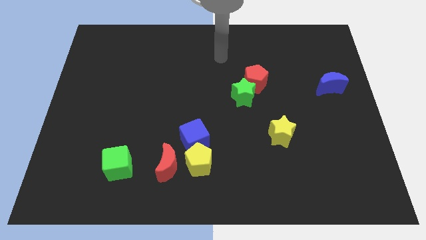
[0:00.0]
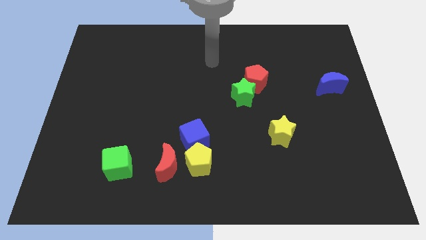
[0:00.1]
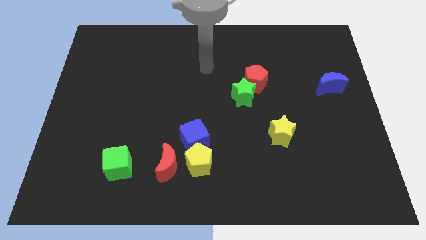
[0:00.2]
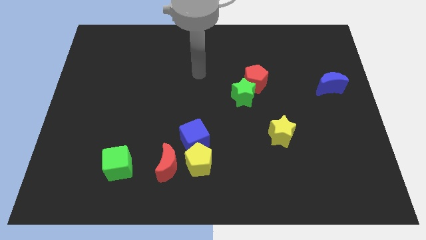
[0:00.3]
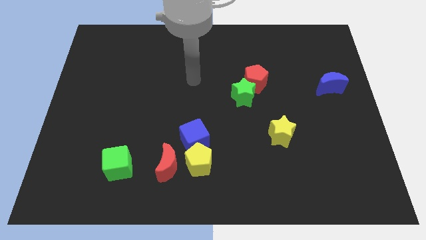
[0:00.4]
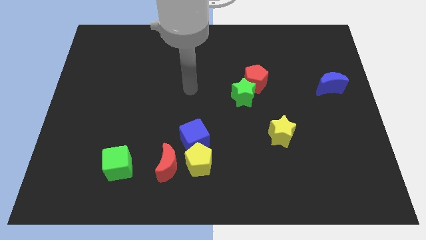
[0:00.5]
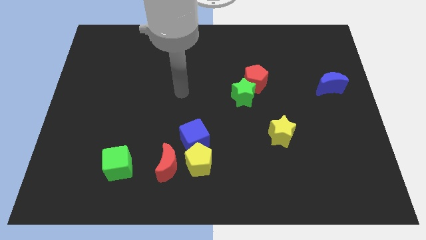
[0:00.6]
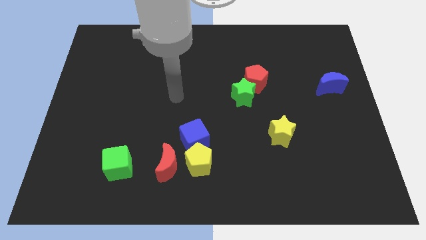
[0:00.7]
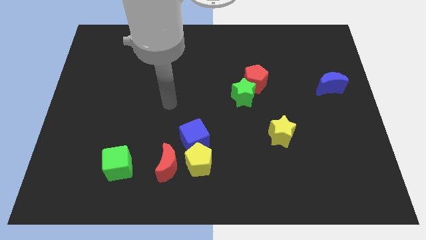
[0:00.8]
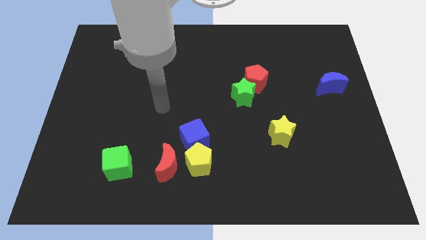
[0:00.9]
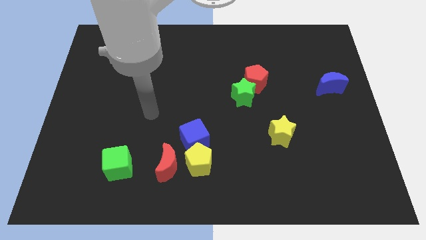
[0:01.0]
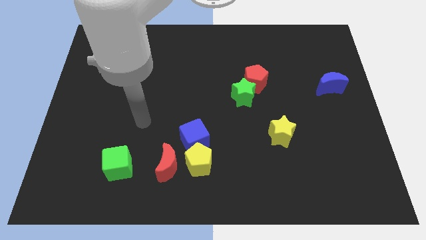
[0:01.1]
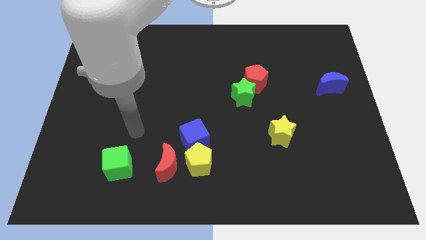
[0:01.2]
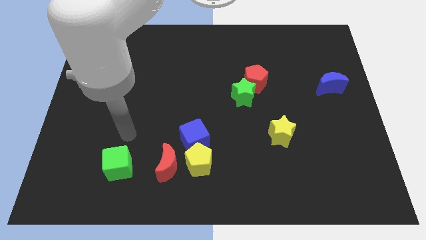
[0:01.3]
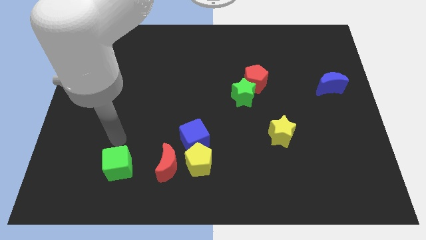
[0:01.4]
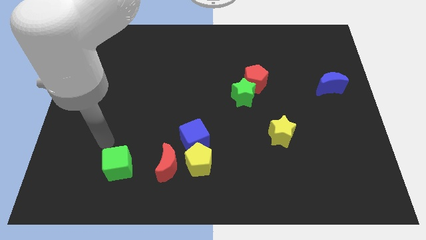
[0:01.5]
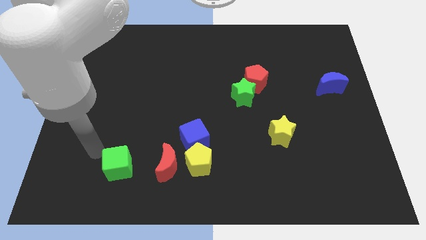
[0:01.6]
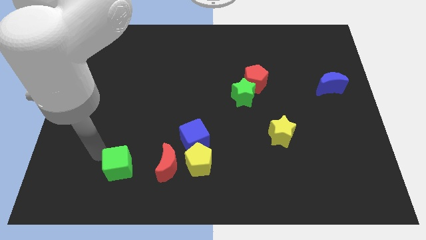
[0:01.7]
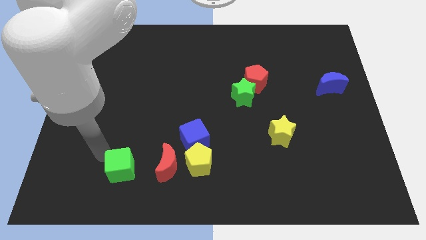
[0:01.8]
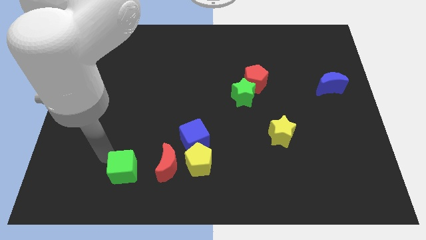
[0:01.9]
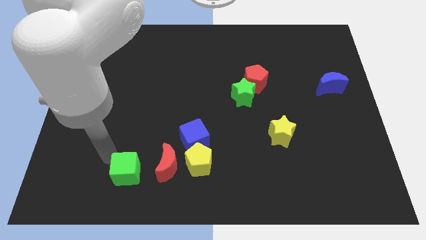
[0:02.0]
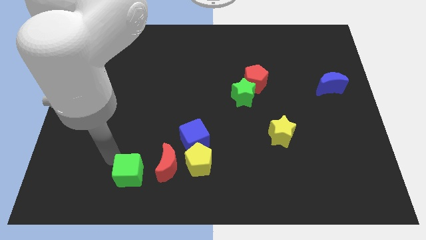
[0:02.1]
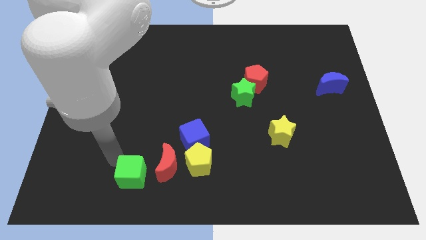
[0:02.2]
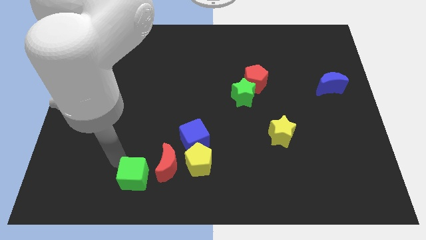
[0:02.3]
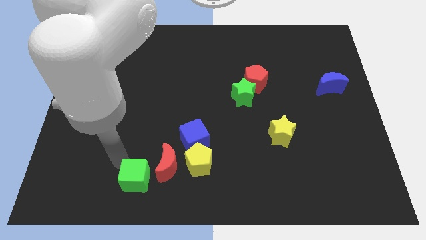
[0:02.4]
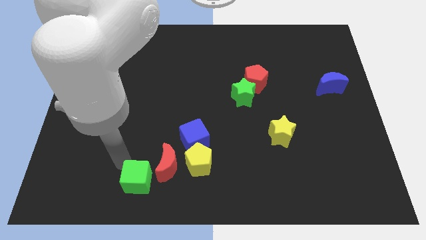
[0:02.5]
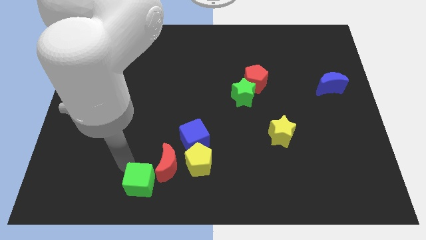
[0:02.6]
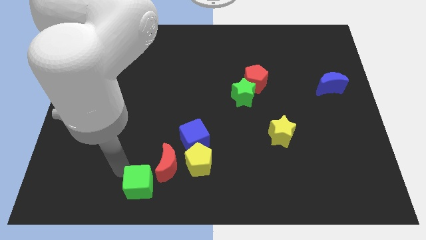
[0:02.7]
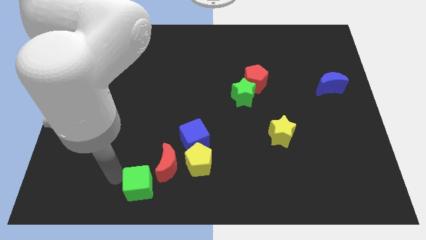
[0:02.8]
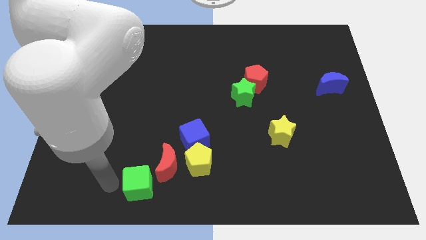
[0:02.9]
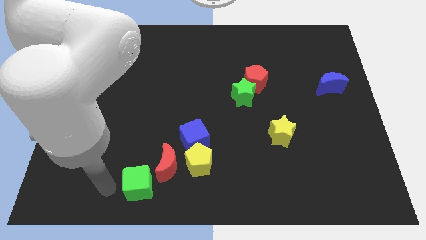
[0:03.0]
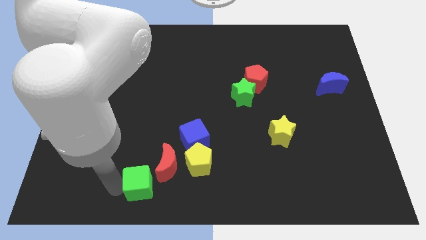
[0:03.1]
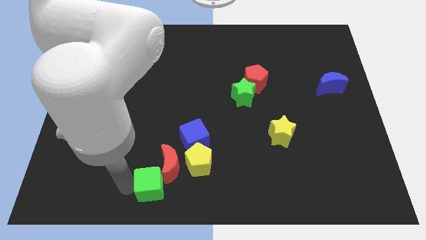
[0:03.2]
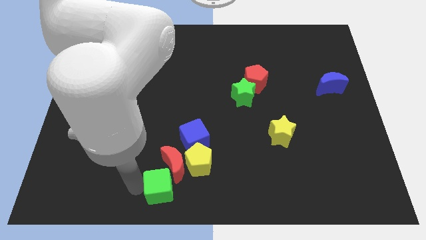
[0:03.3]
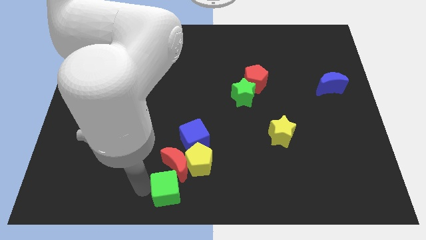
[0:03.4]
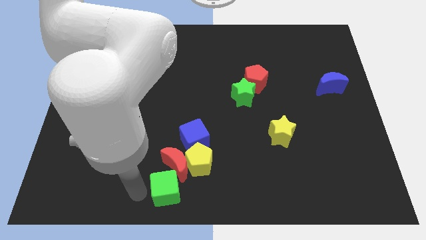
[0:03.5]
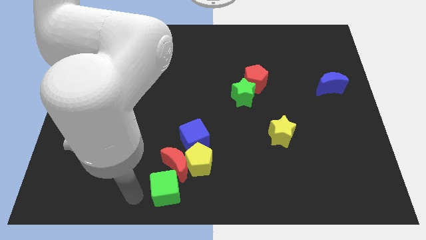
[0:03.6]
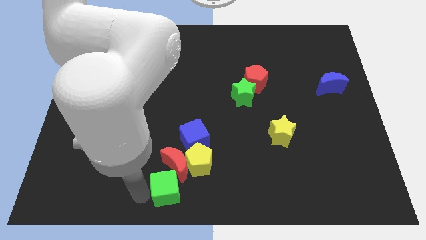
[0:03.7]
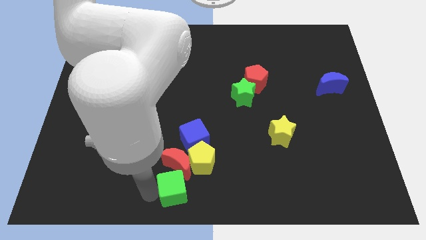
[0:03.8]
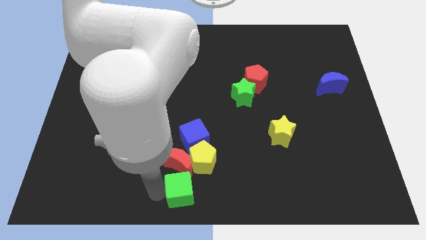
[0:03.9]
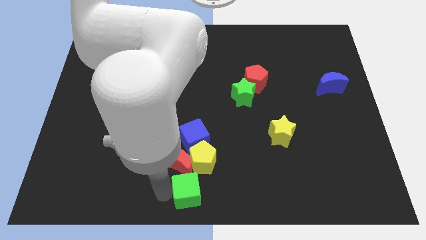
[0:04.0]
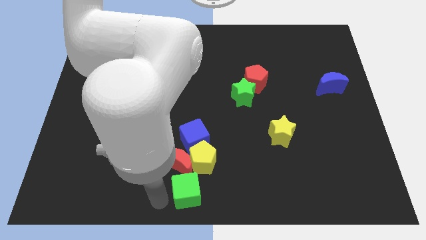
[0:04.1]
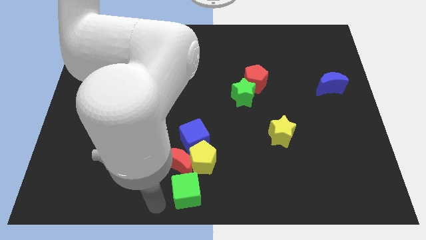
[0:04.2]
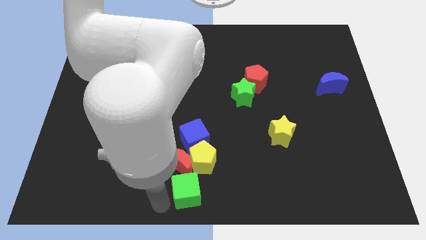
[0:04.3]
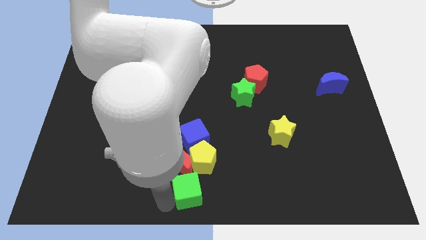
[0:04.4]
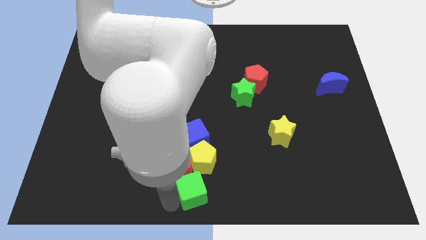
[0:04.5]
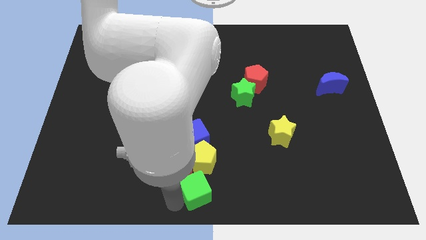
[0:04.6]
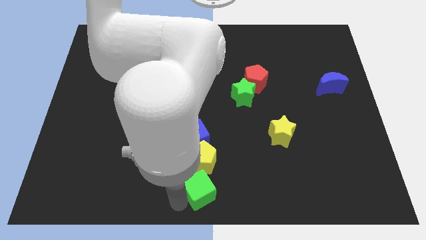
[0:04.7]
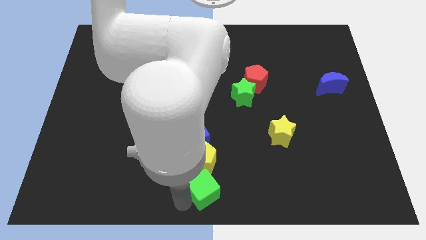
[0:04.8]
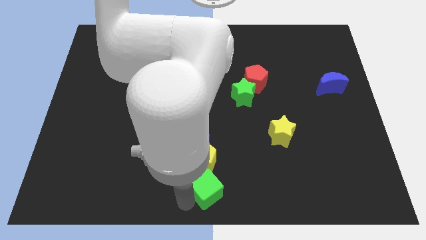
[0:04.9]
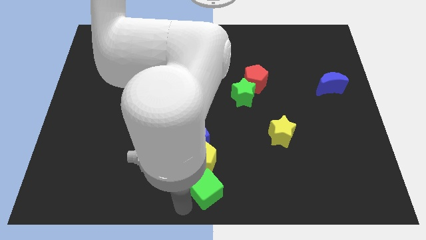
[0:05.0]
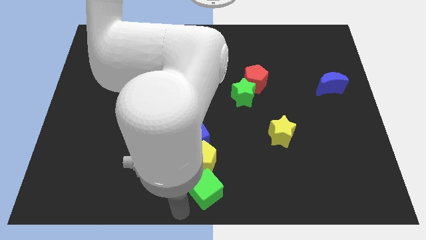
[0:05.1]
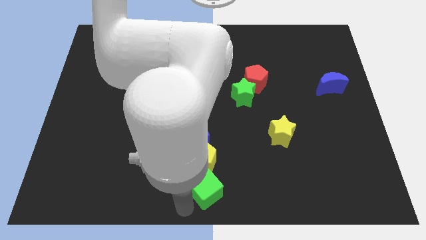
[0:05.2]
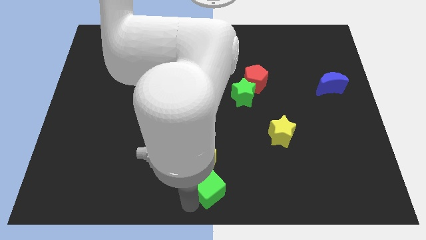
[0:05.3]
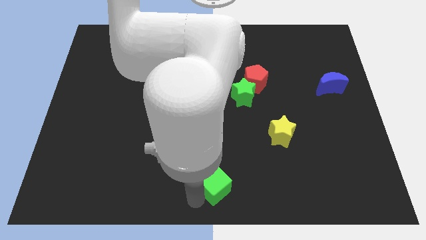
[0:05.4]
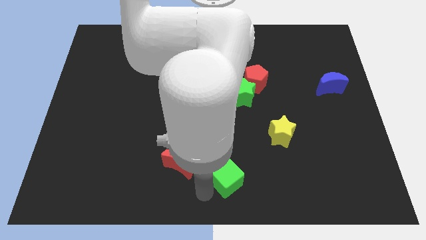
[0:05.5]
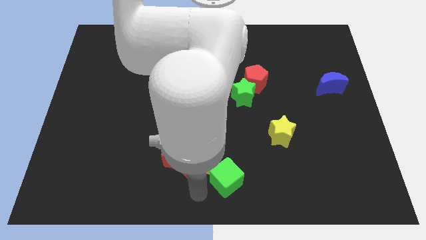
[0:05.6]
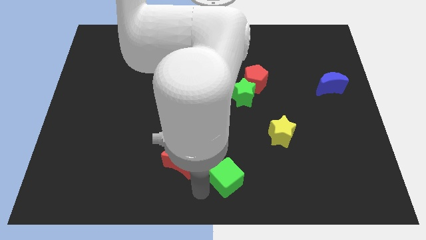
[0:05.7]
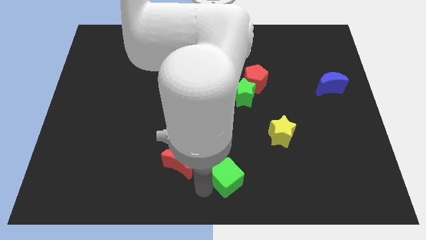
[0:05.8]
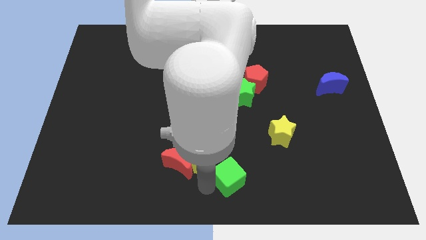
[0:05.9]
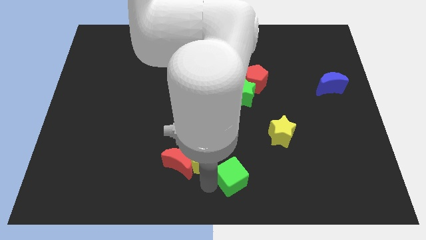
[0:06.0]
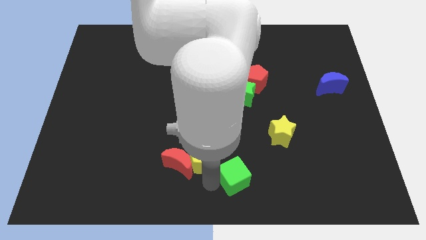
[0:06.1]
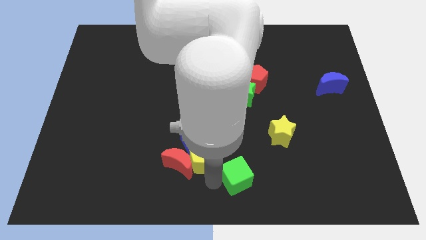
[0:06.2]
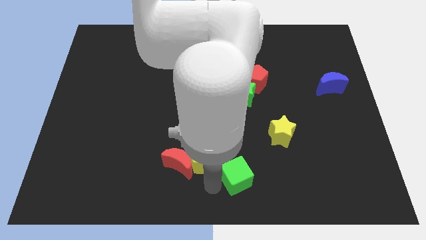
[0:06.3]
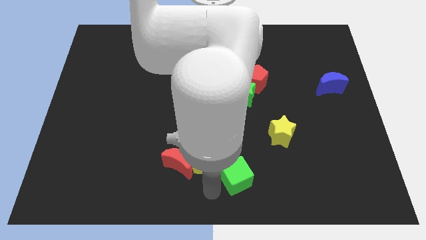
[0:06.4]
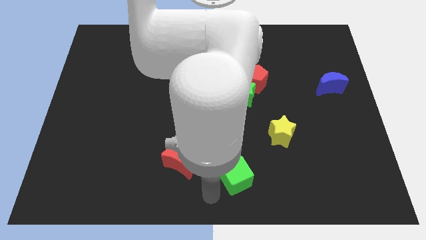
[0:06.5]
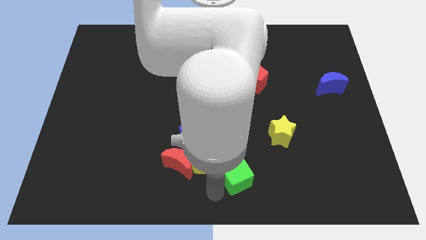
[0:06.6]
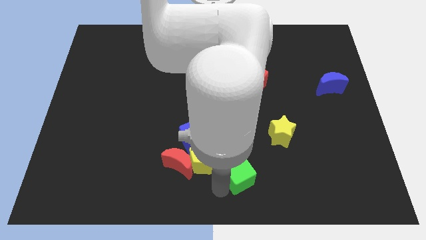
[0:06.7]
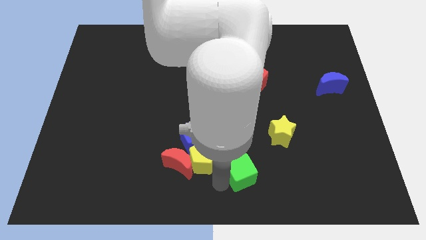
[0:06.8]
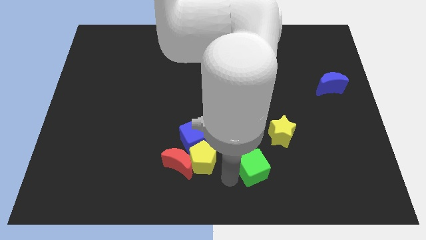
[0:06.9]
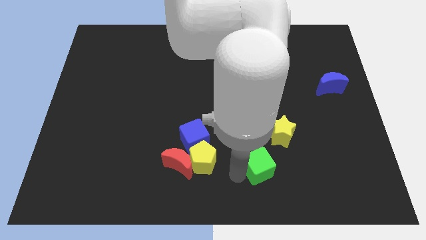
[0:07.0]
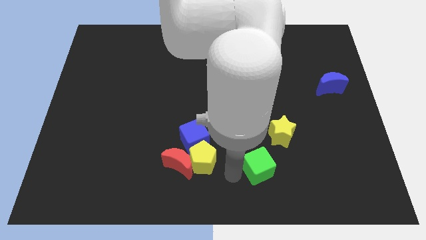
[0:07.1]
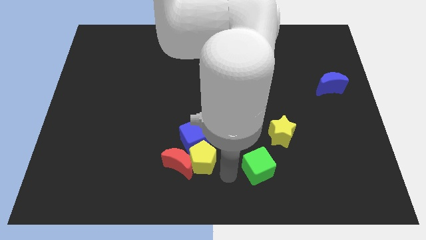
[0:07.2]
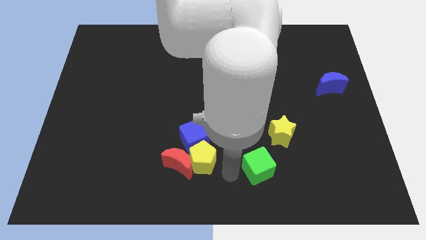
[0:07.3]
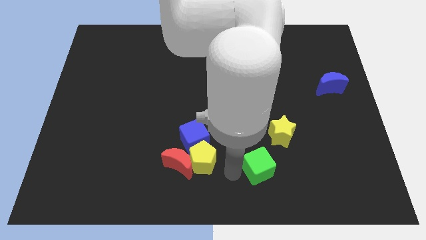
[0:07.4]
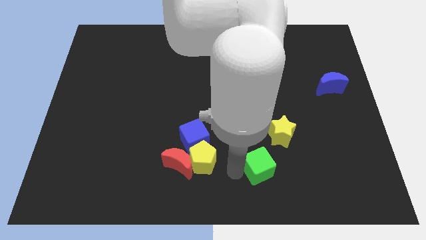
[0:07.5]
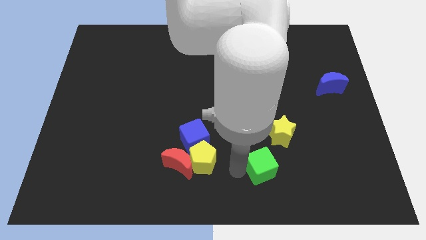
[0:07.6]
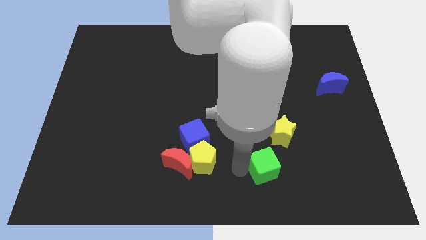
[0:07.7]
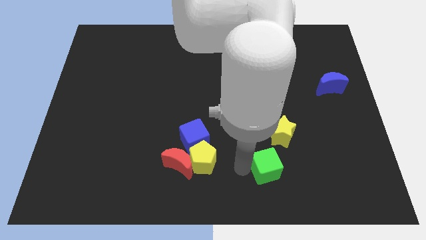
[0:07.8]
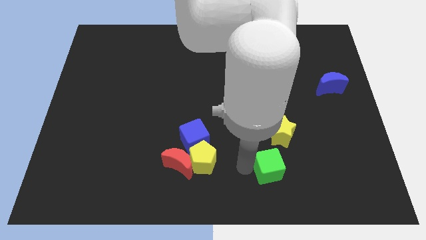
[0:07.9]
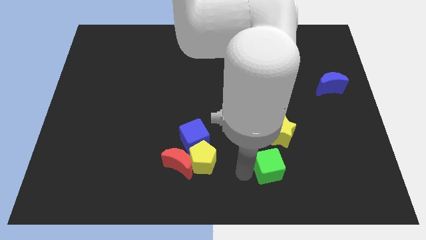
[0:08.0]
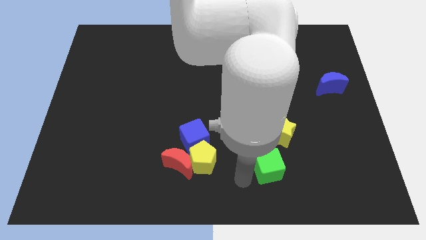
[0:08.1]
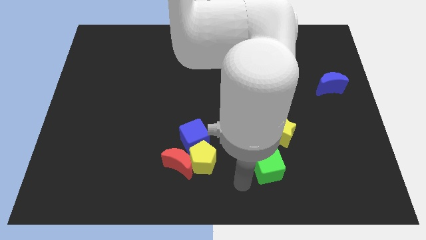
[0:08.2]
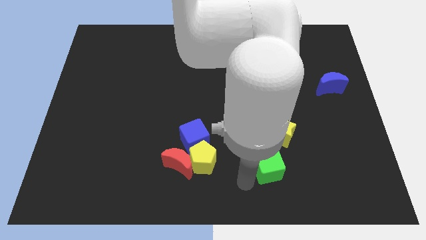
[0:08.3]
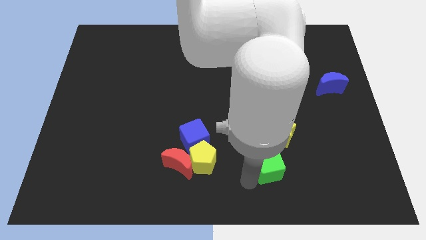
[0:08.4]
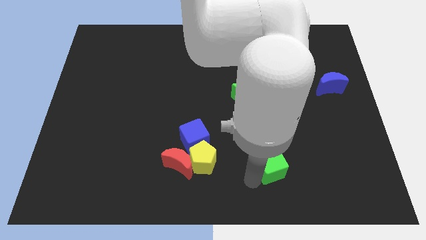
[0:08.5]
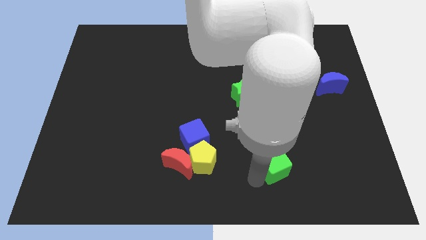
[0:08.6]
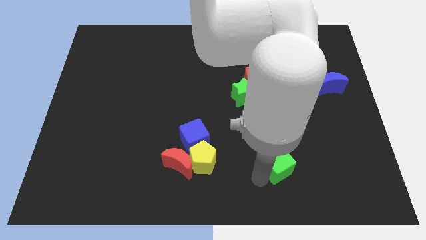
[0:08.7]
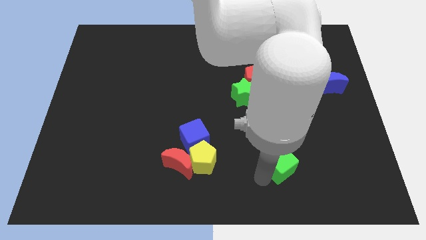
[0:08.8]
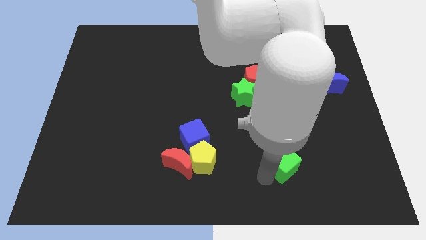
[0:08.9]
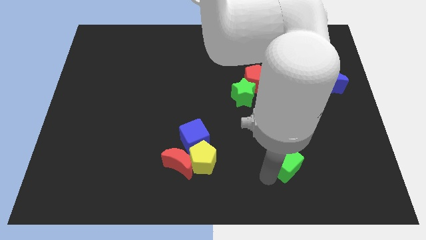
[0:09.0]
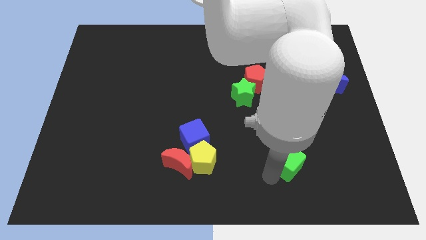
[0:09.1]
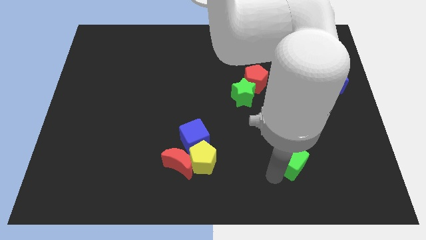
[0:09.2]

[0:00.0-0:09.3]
push the green cube to the bottom right side of the yellow star
